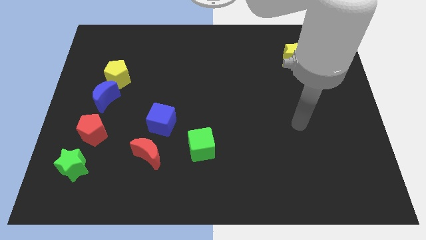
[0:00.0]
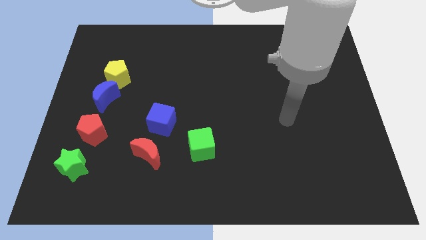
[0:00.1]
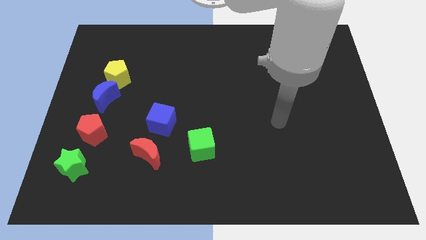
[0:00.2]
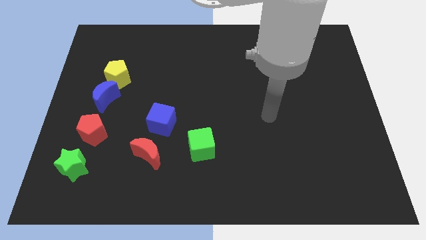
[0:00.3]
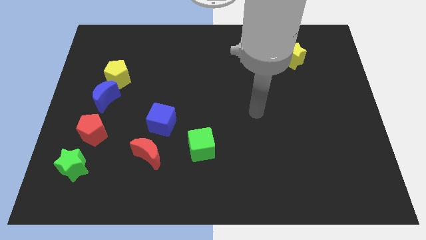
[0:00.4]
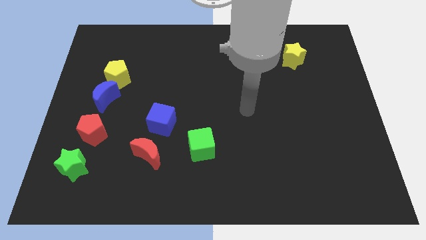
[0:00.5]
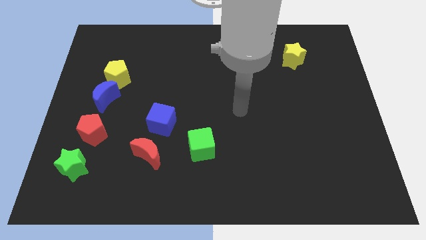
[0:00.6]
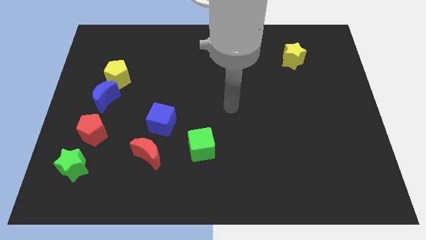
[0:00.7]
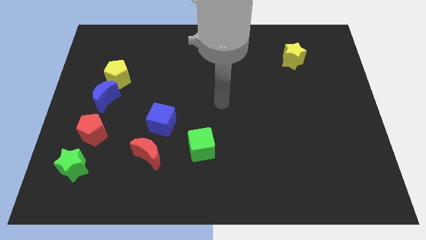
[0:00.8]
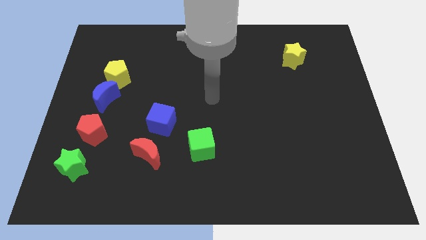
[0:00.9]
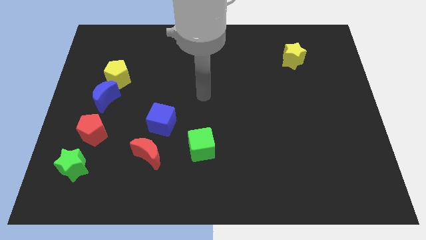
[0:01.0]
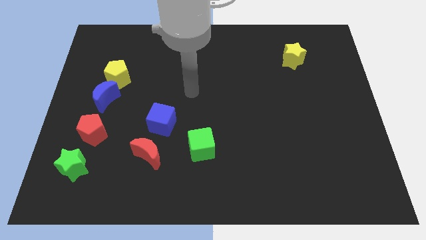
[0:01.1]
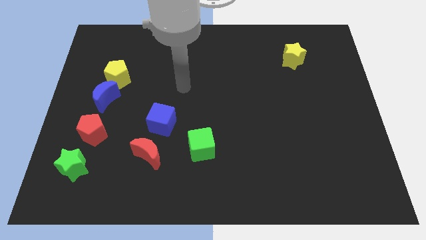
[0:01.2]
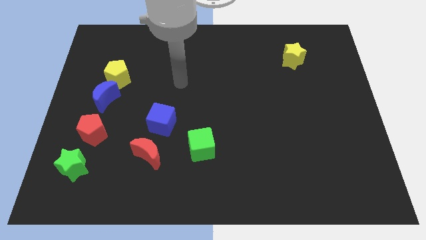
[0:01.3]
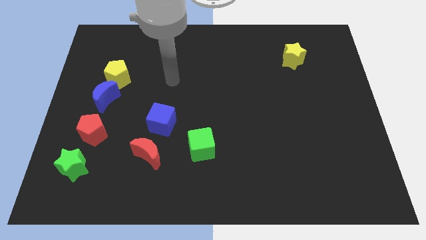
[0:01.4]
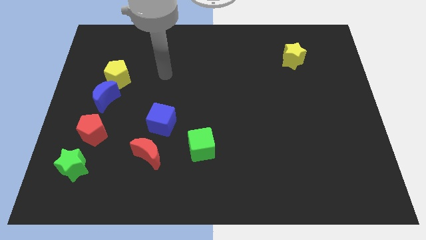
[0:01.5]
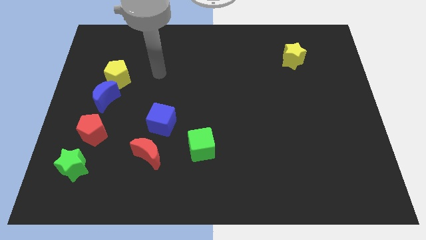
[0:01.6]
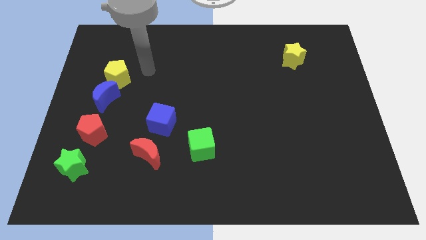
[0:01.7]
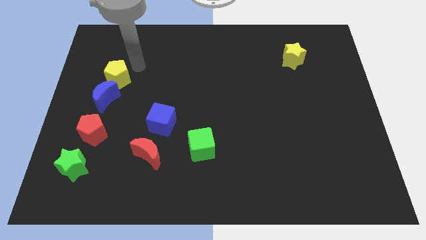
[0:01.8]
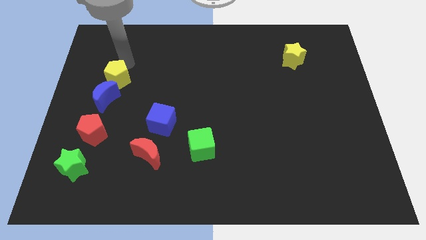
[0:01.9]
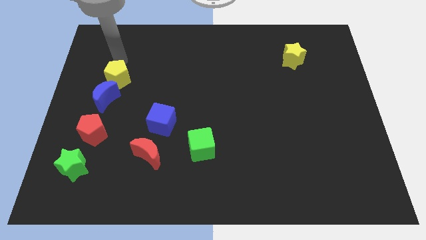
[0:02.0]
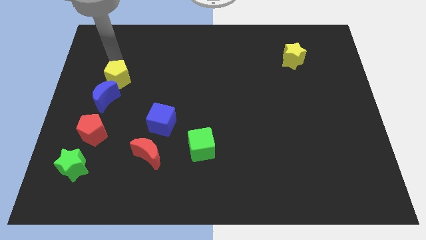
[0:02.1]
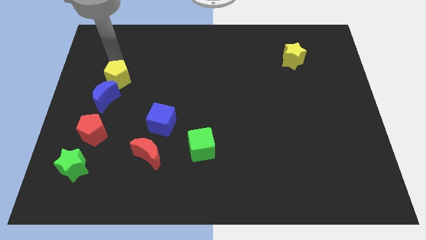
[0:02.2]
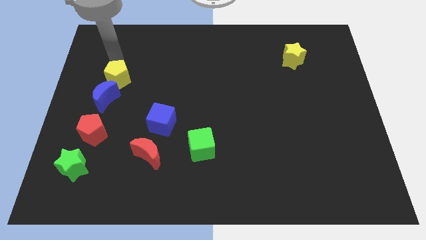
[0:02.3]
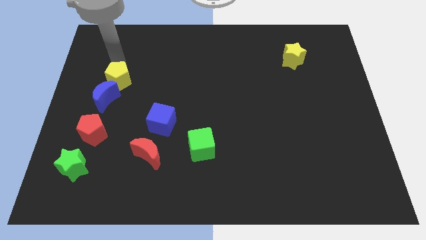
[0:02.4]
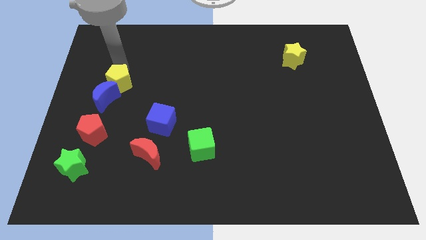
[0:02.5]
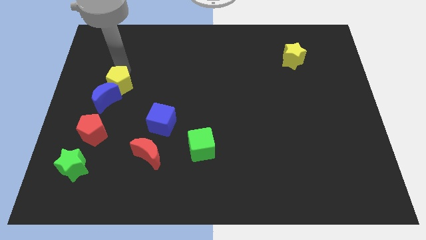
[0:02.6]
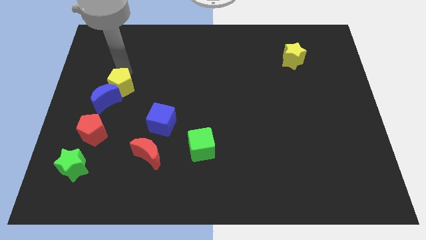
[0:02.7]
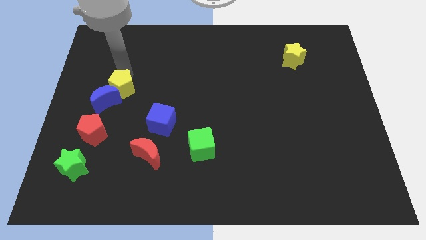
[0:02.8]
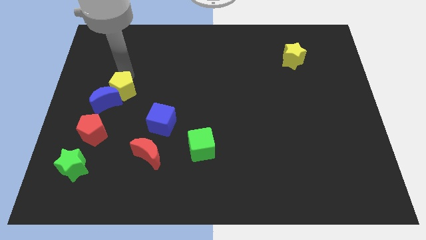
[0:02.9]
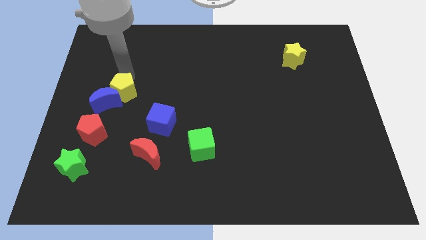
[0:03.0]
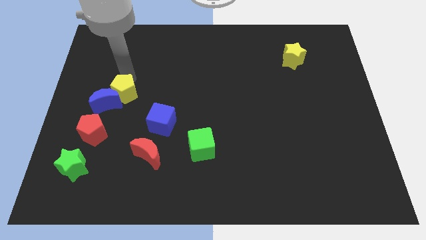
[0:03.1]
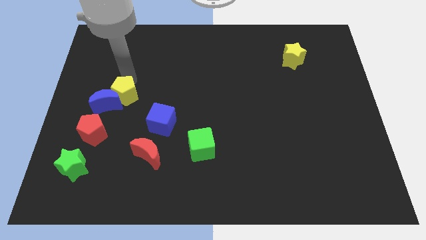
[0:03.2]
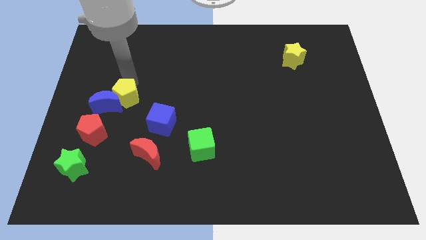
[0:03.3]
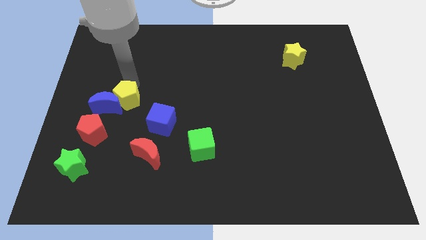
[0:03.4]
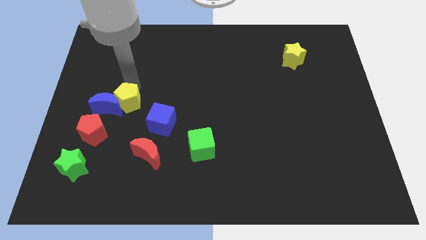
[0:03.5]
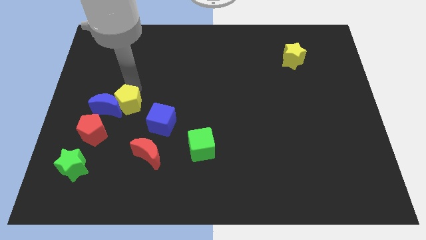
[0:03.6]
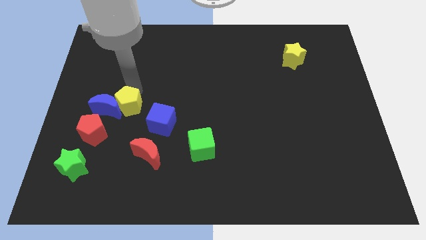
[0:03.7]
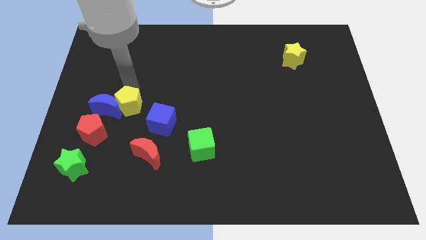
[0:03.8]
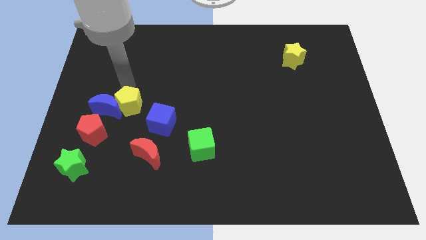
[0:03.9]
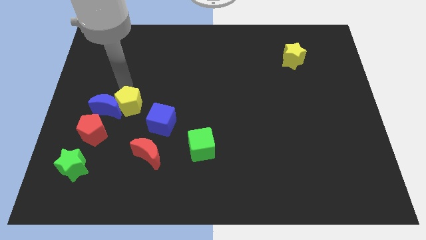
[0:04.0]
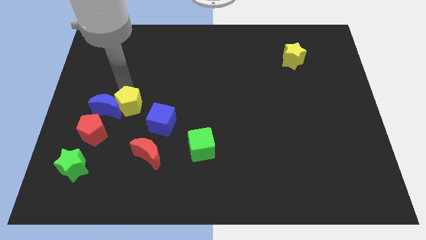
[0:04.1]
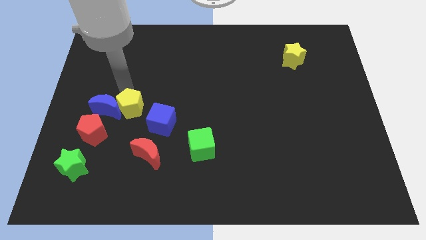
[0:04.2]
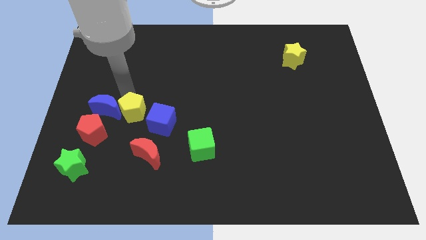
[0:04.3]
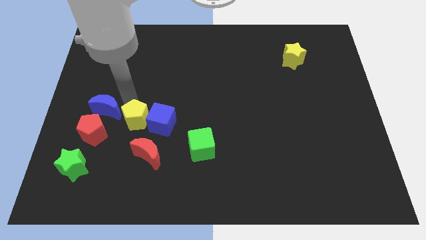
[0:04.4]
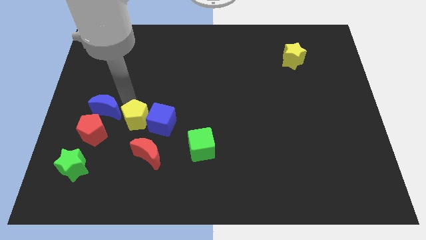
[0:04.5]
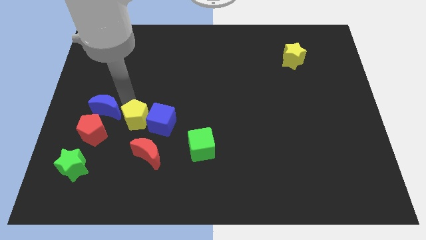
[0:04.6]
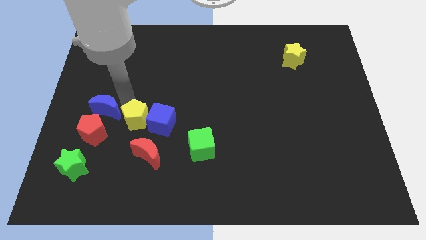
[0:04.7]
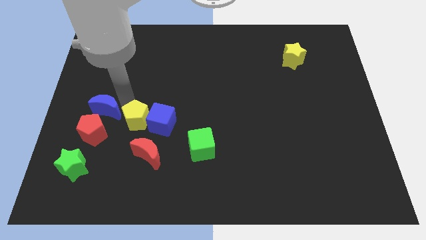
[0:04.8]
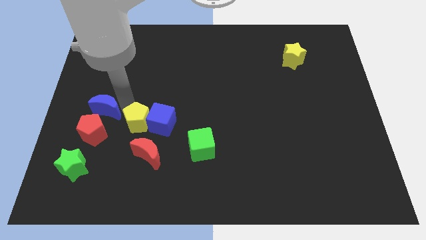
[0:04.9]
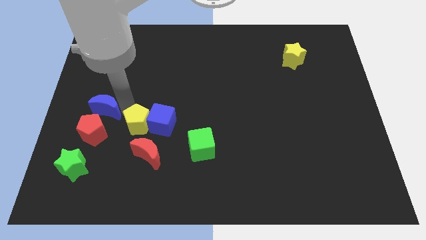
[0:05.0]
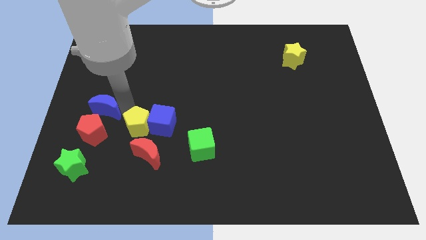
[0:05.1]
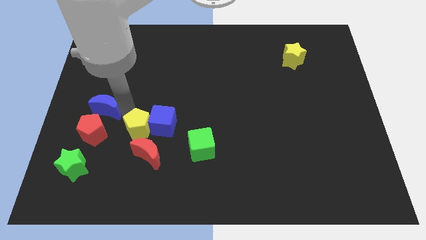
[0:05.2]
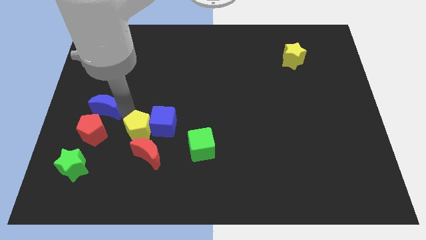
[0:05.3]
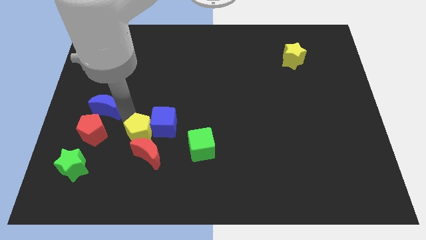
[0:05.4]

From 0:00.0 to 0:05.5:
move the yellow pentagon to the red moon

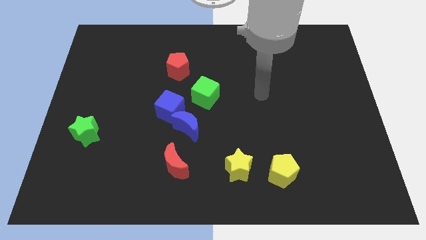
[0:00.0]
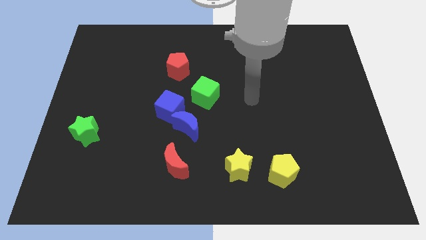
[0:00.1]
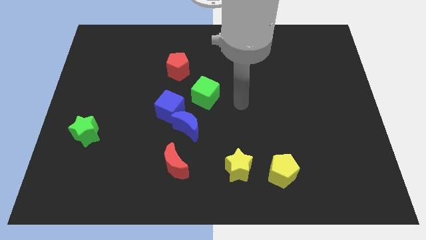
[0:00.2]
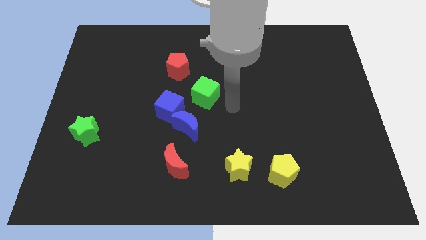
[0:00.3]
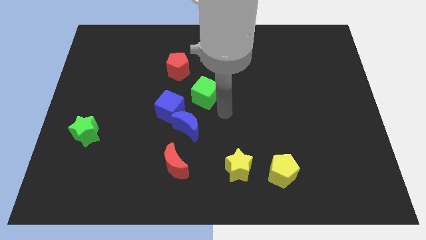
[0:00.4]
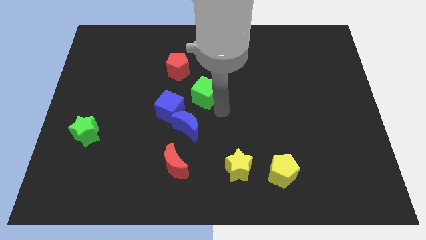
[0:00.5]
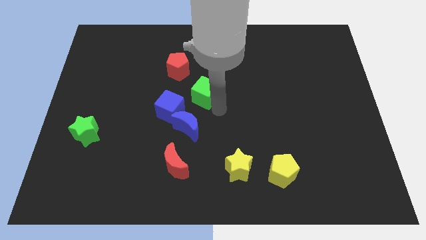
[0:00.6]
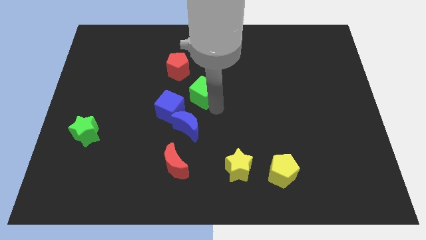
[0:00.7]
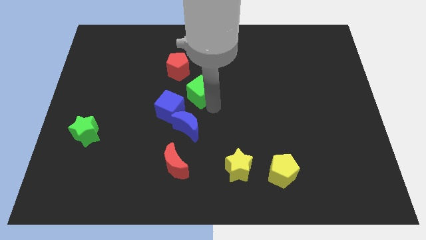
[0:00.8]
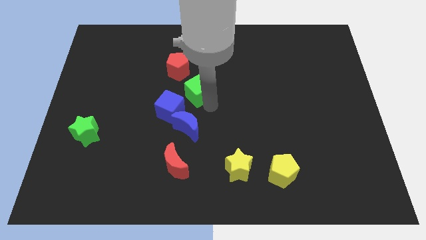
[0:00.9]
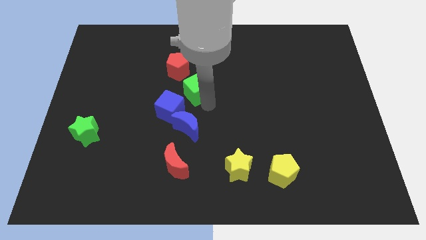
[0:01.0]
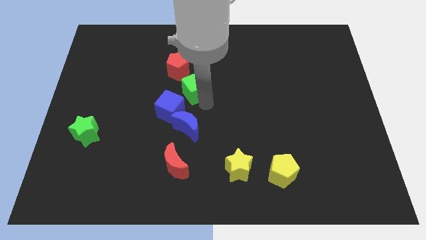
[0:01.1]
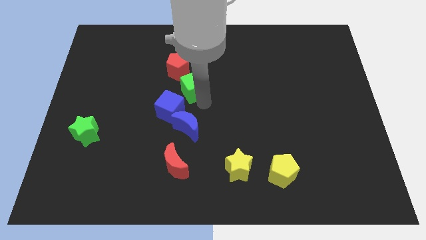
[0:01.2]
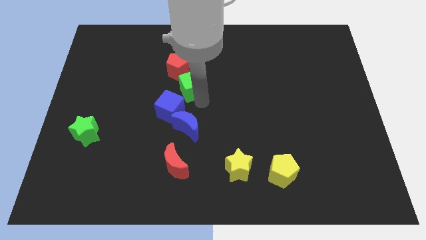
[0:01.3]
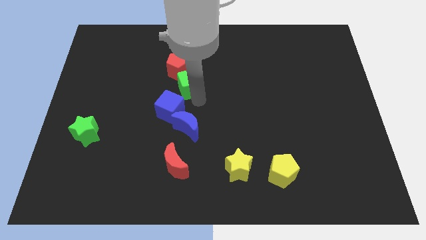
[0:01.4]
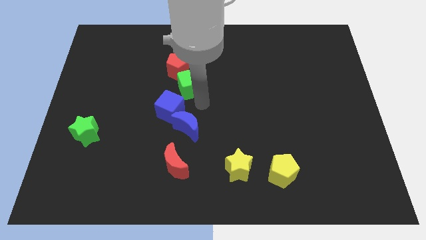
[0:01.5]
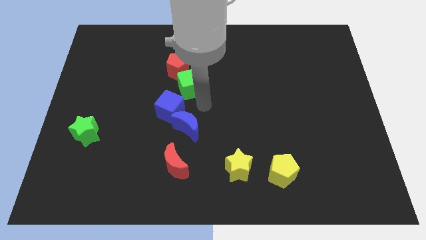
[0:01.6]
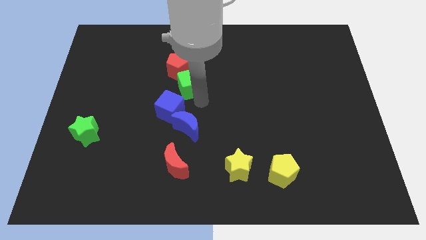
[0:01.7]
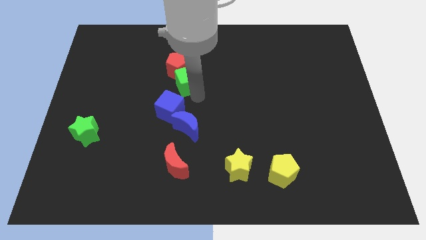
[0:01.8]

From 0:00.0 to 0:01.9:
put the green cube towards the red pentagon

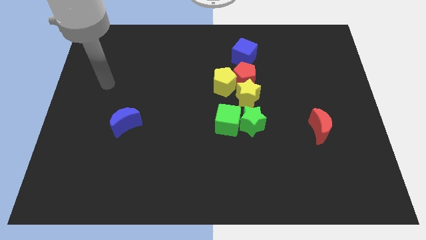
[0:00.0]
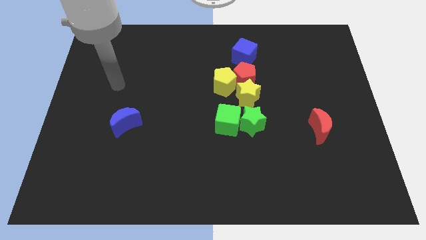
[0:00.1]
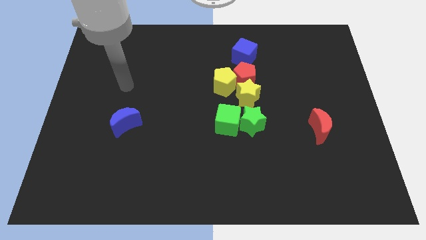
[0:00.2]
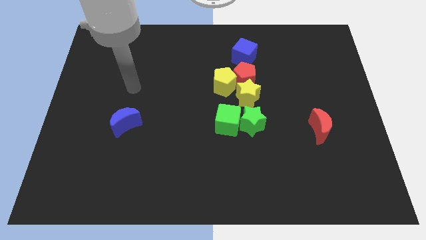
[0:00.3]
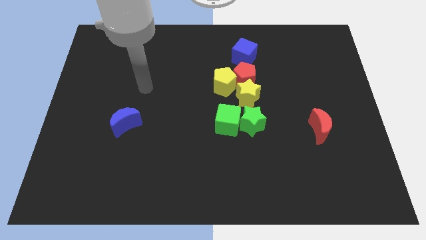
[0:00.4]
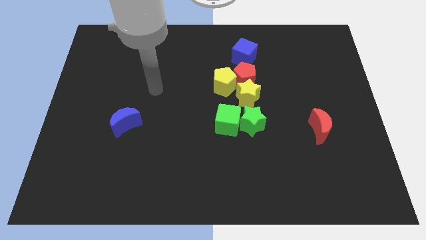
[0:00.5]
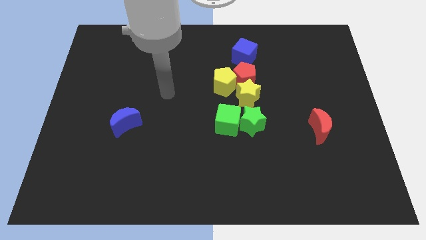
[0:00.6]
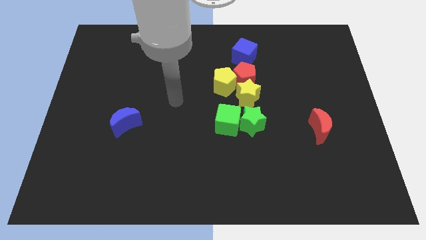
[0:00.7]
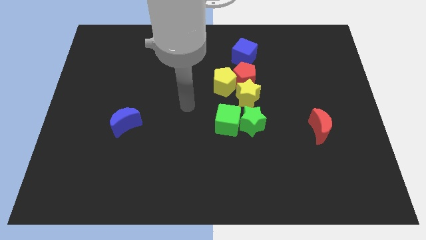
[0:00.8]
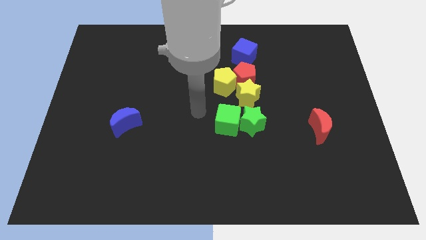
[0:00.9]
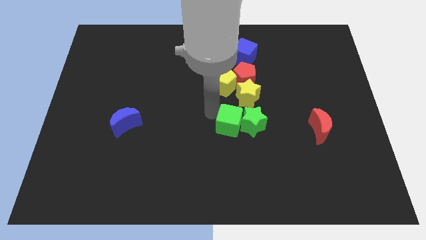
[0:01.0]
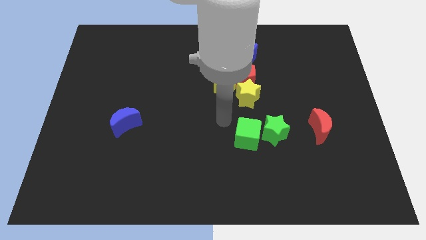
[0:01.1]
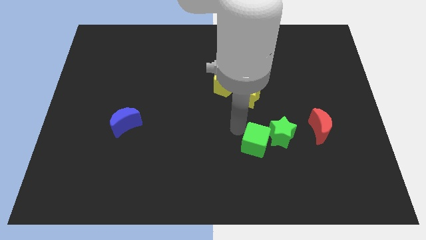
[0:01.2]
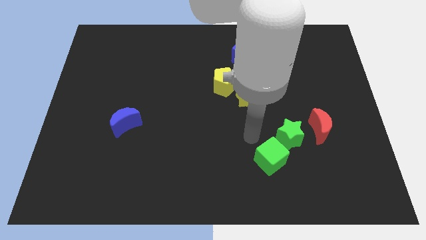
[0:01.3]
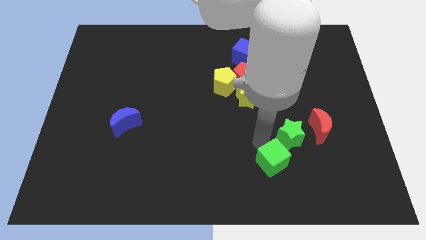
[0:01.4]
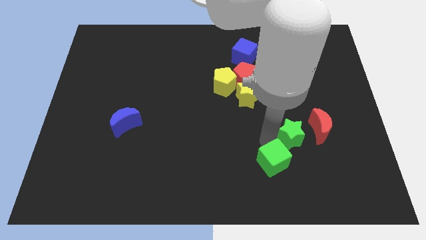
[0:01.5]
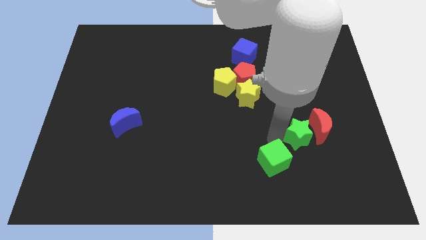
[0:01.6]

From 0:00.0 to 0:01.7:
push the green star towards the red moon
